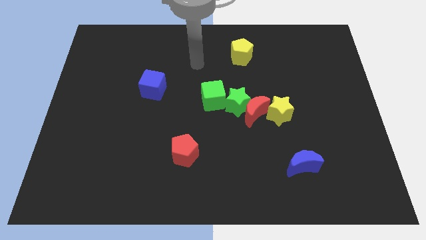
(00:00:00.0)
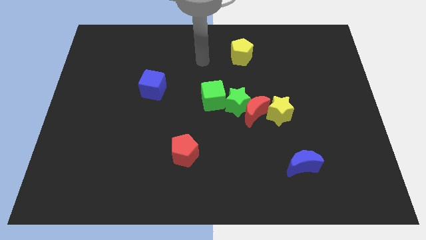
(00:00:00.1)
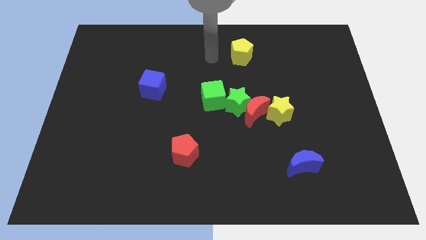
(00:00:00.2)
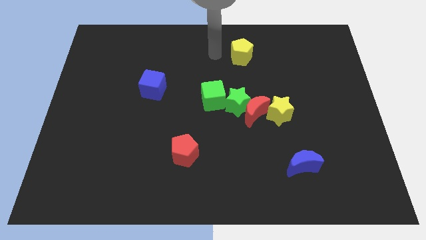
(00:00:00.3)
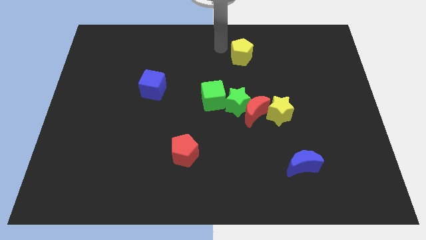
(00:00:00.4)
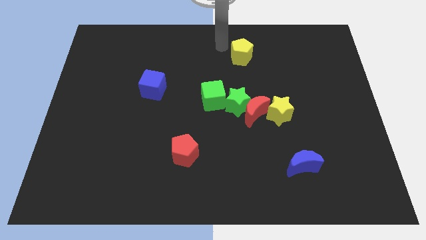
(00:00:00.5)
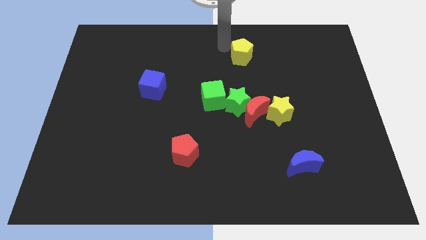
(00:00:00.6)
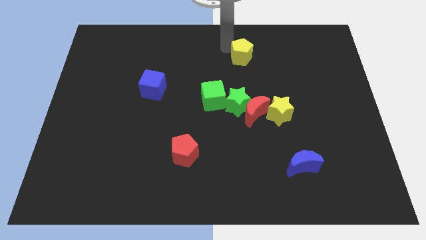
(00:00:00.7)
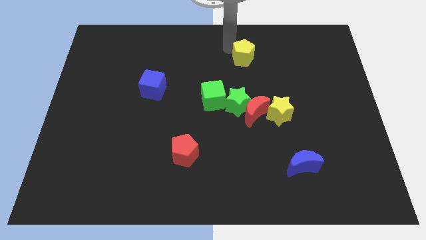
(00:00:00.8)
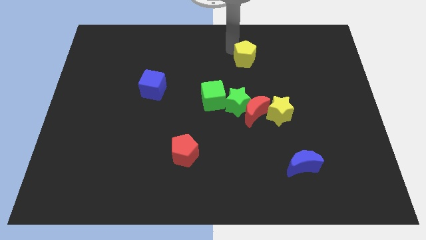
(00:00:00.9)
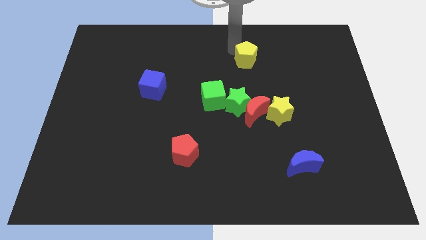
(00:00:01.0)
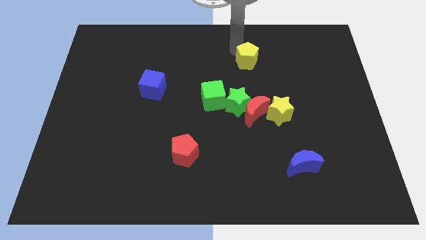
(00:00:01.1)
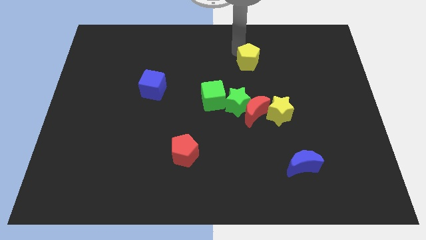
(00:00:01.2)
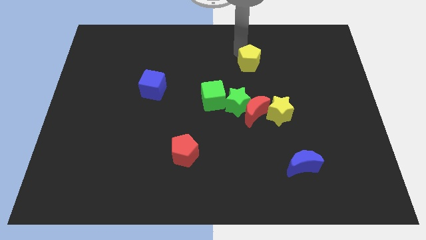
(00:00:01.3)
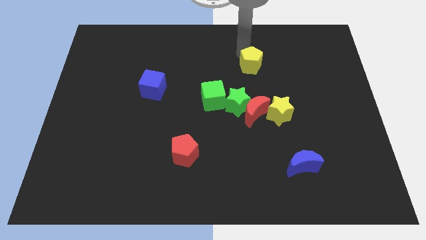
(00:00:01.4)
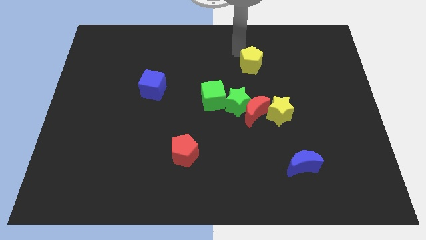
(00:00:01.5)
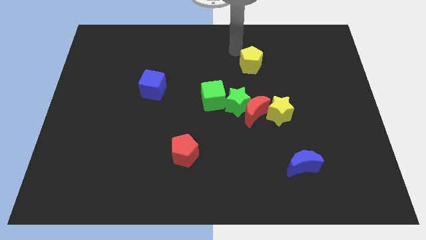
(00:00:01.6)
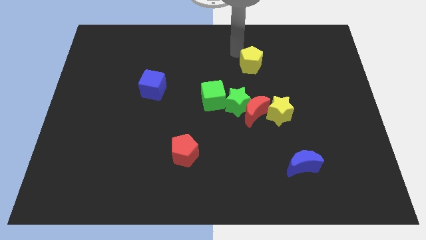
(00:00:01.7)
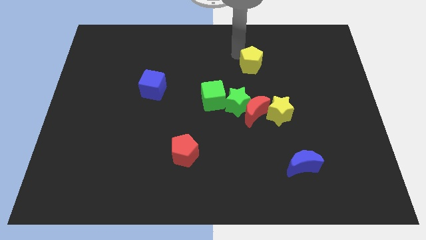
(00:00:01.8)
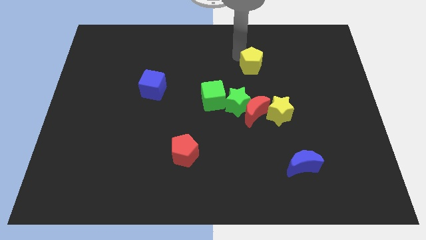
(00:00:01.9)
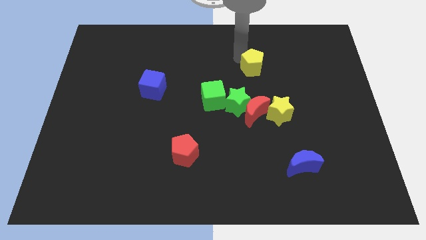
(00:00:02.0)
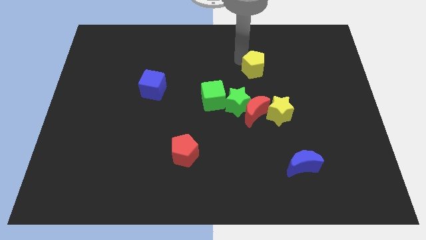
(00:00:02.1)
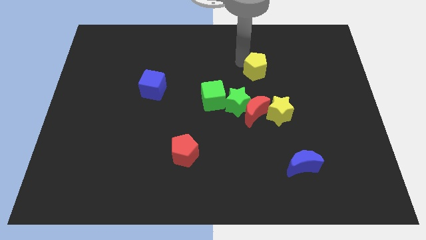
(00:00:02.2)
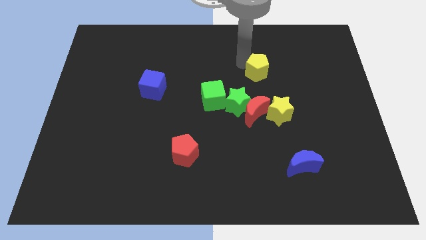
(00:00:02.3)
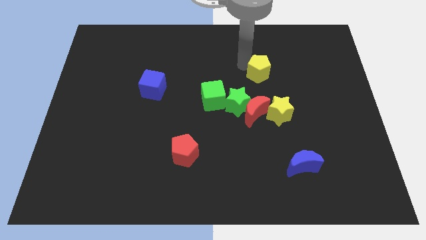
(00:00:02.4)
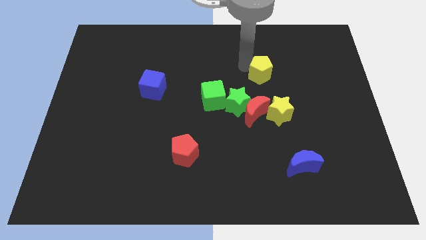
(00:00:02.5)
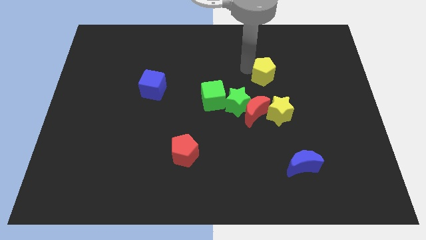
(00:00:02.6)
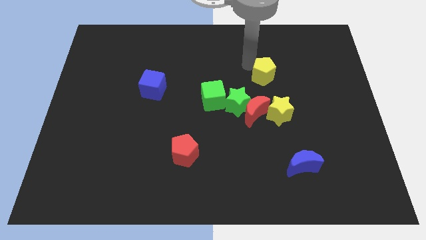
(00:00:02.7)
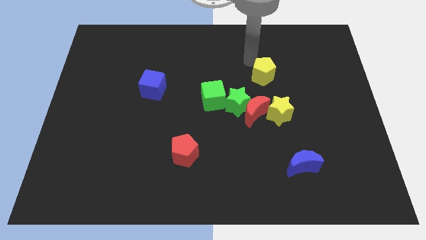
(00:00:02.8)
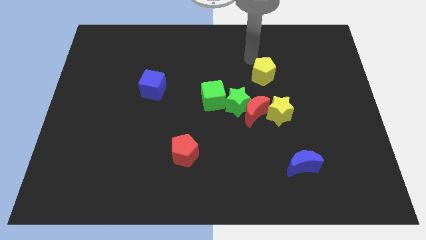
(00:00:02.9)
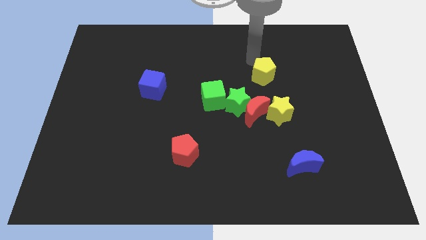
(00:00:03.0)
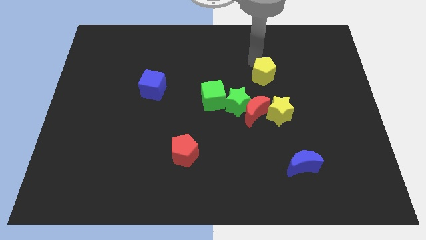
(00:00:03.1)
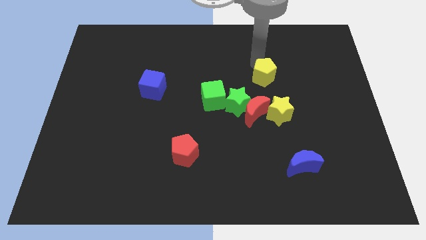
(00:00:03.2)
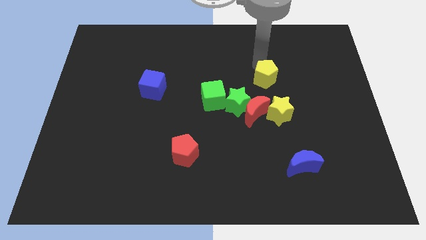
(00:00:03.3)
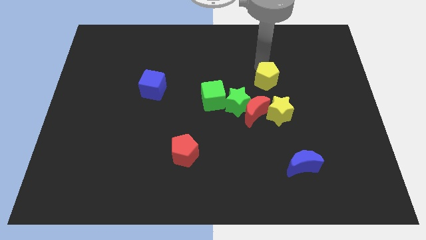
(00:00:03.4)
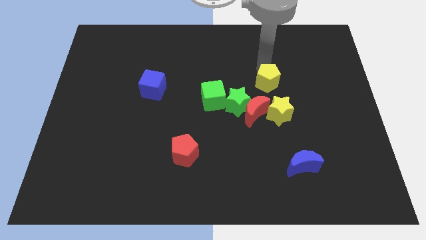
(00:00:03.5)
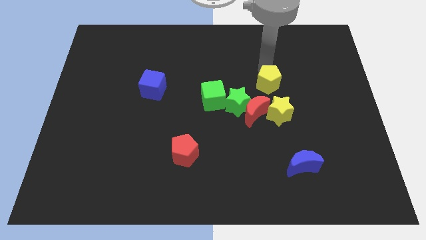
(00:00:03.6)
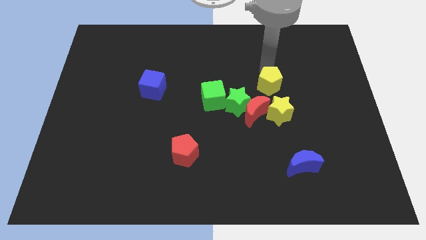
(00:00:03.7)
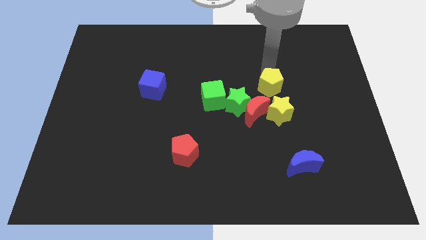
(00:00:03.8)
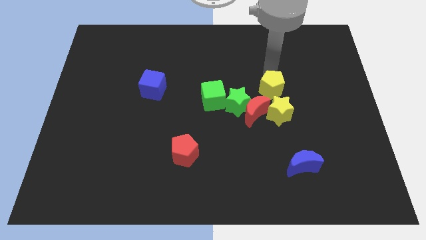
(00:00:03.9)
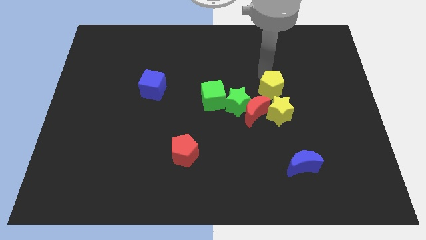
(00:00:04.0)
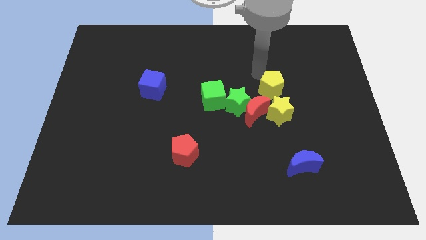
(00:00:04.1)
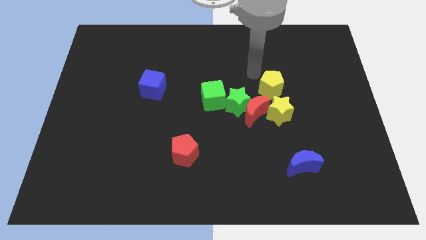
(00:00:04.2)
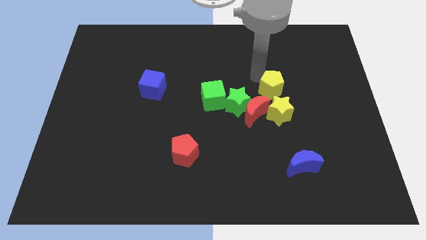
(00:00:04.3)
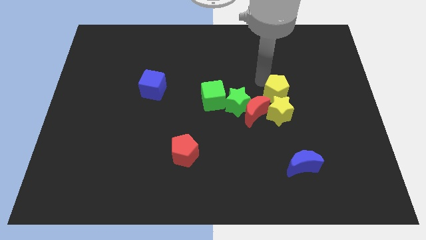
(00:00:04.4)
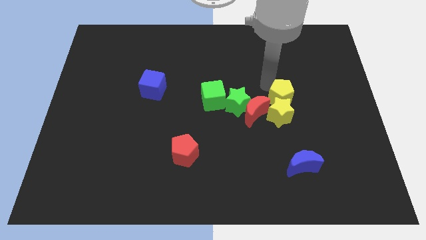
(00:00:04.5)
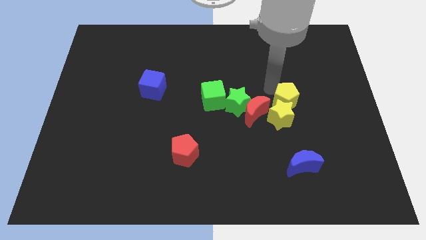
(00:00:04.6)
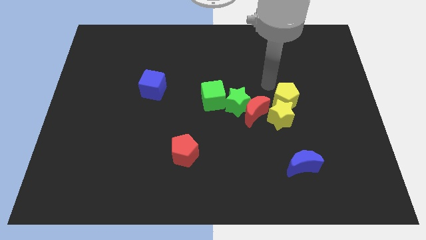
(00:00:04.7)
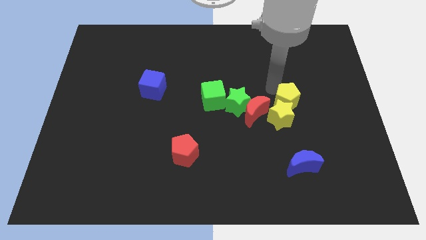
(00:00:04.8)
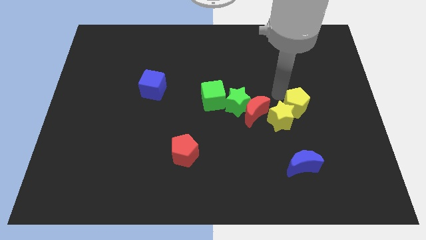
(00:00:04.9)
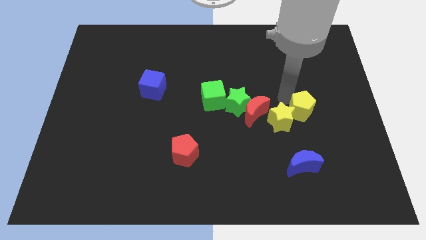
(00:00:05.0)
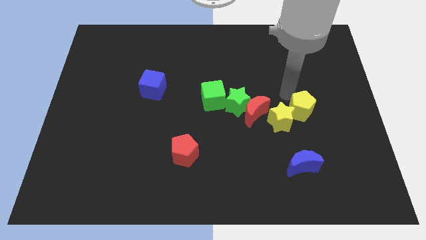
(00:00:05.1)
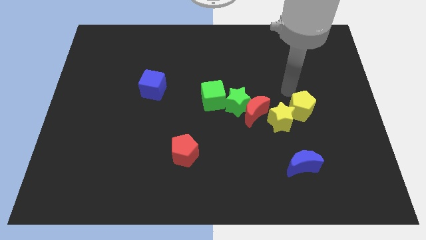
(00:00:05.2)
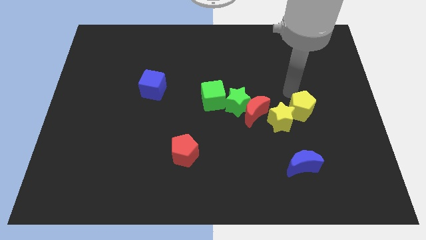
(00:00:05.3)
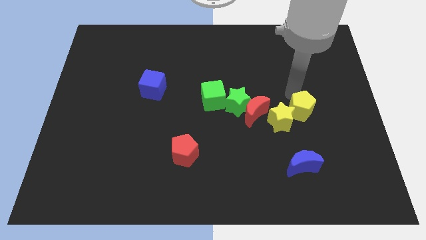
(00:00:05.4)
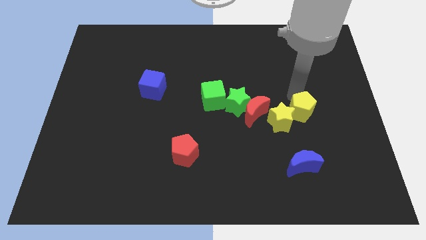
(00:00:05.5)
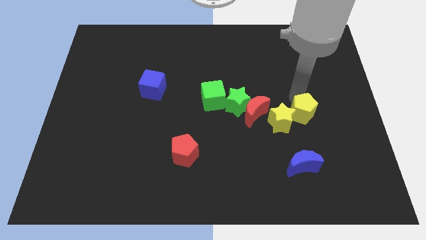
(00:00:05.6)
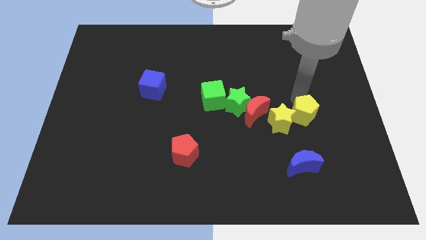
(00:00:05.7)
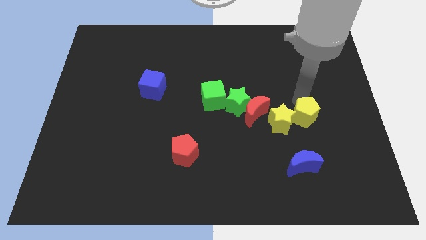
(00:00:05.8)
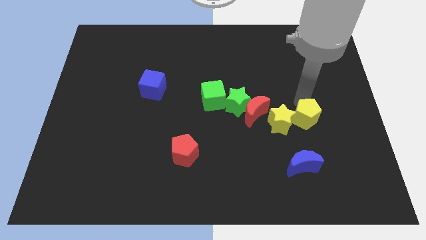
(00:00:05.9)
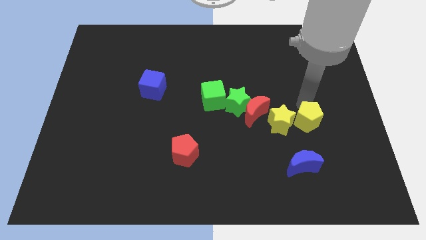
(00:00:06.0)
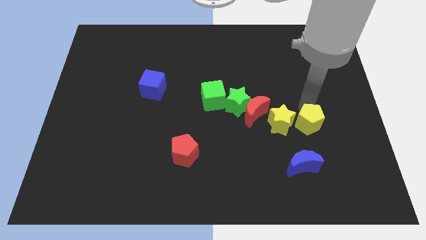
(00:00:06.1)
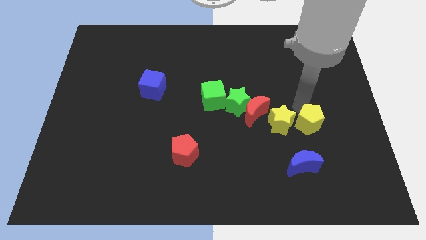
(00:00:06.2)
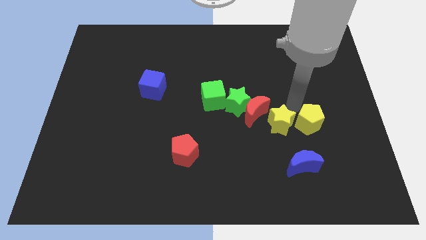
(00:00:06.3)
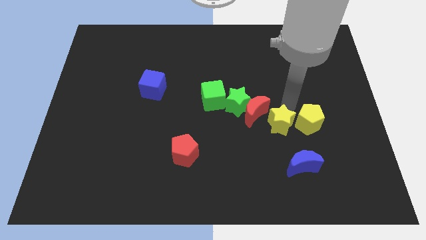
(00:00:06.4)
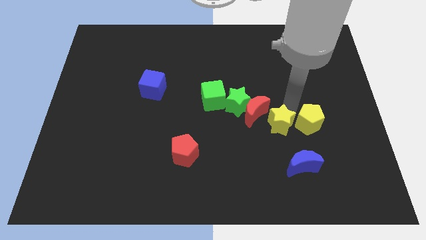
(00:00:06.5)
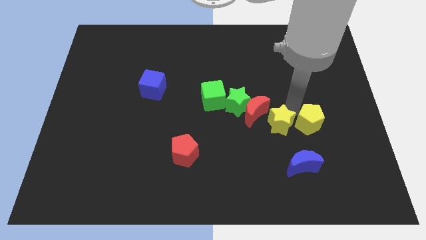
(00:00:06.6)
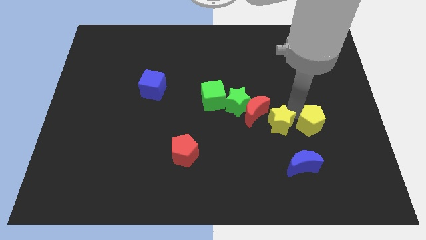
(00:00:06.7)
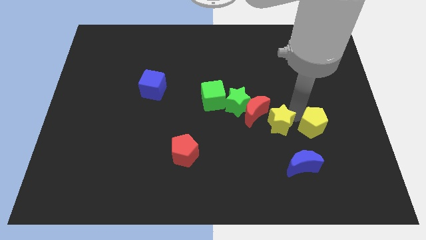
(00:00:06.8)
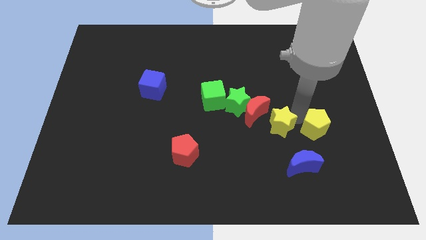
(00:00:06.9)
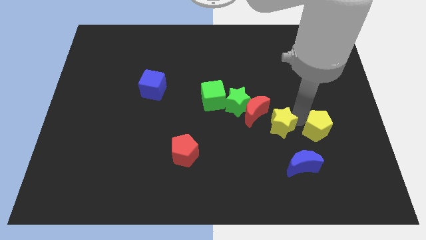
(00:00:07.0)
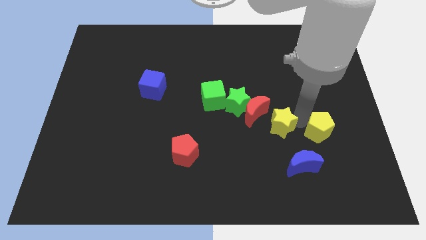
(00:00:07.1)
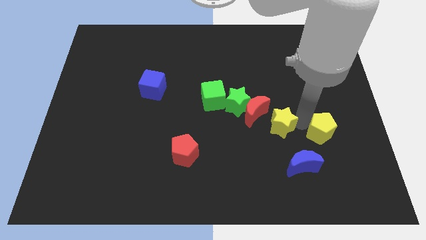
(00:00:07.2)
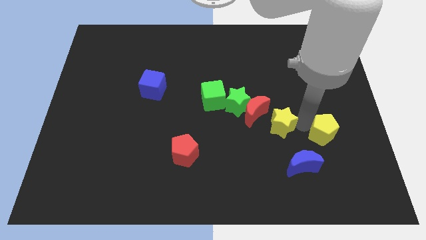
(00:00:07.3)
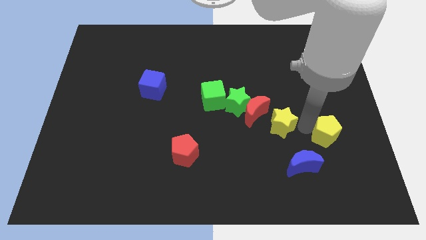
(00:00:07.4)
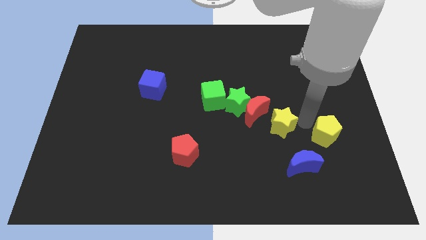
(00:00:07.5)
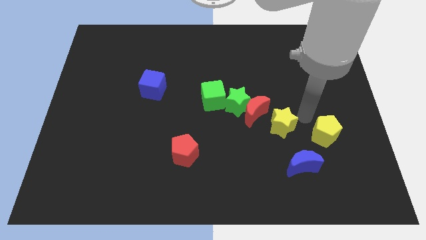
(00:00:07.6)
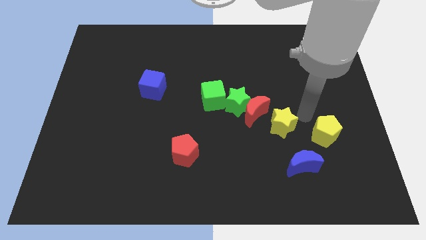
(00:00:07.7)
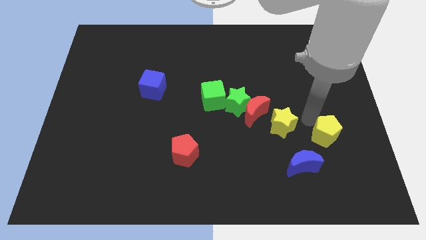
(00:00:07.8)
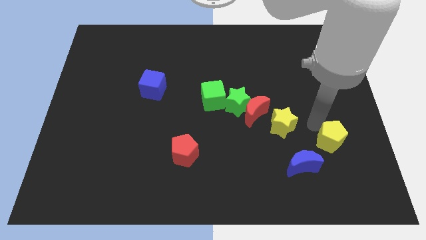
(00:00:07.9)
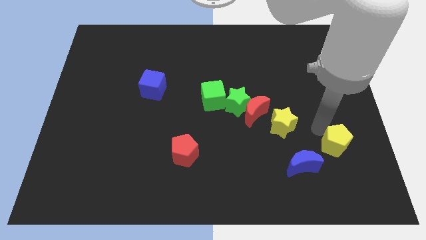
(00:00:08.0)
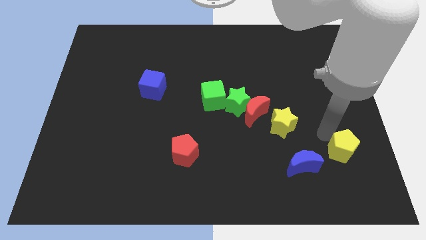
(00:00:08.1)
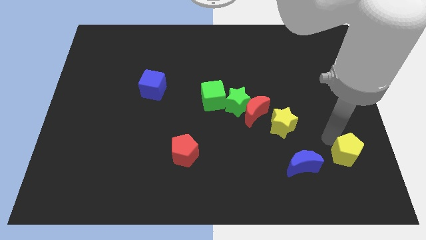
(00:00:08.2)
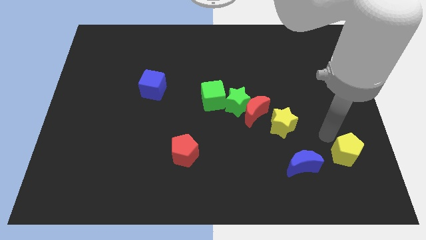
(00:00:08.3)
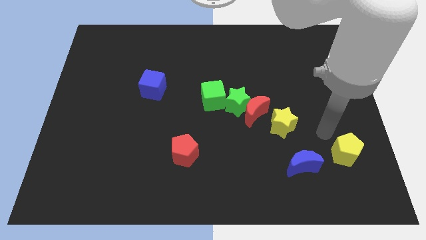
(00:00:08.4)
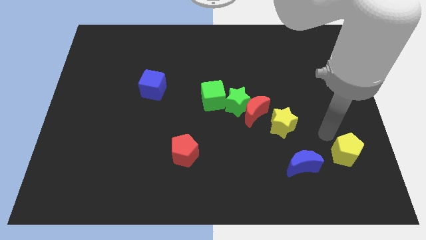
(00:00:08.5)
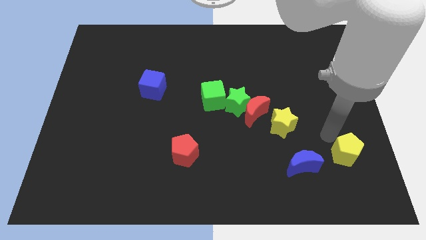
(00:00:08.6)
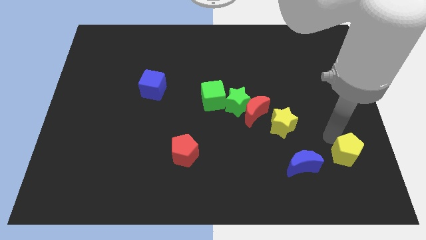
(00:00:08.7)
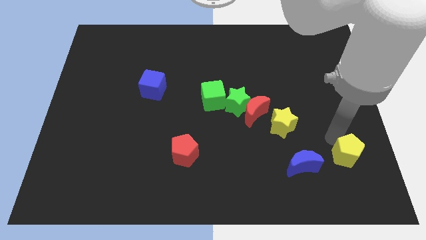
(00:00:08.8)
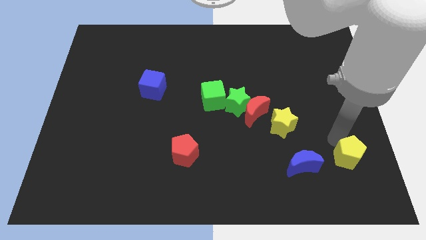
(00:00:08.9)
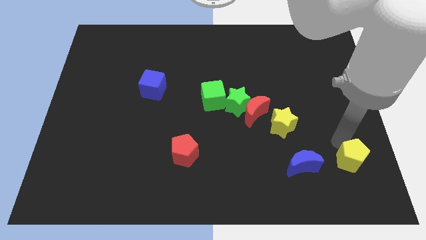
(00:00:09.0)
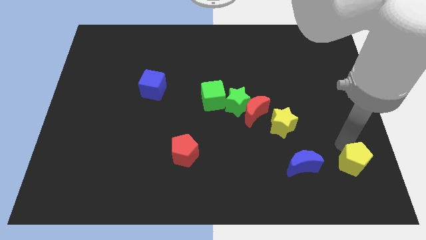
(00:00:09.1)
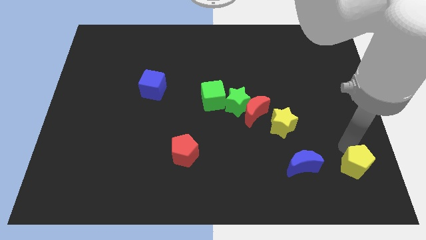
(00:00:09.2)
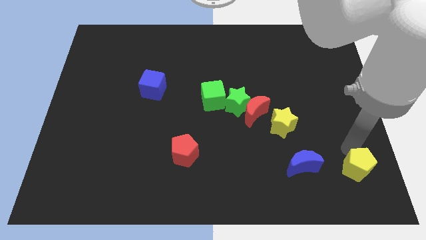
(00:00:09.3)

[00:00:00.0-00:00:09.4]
slide the yellow pentagon to the bottom right corner
